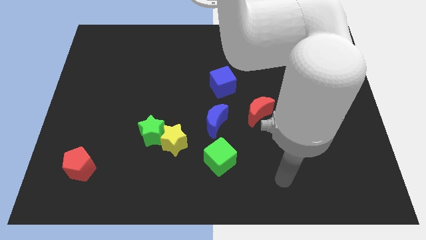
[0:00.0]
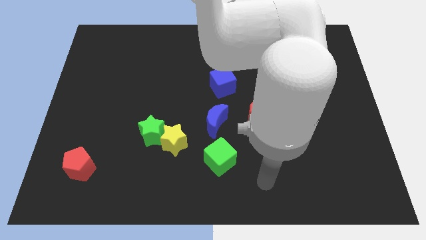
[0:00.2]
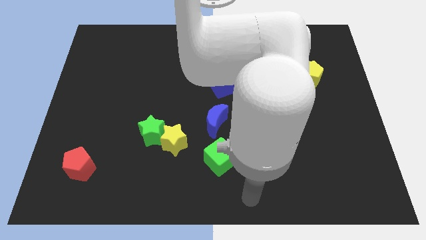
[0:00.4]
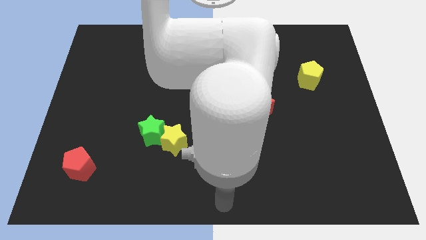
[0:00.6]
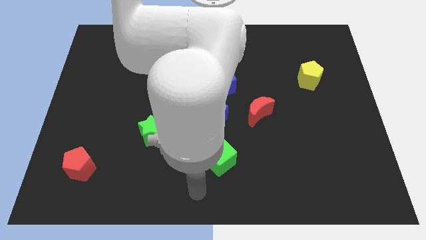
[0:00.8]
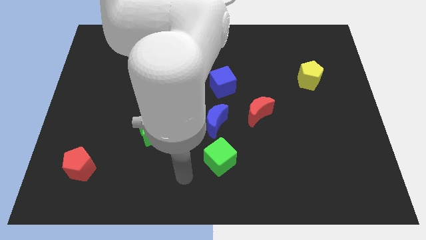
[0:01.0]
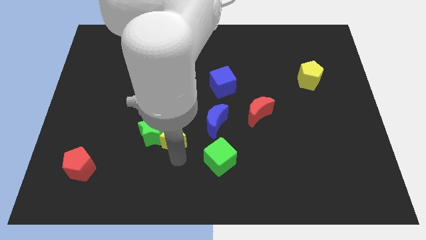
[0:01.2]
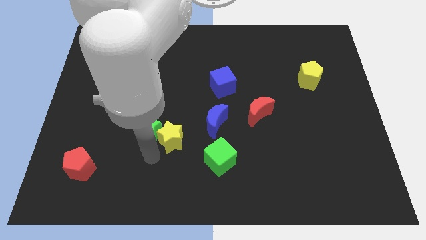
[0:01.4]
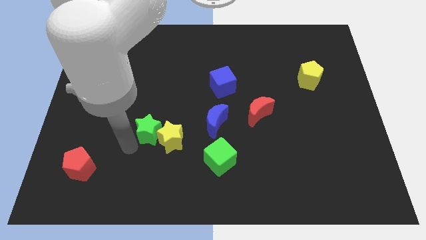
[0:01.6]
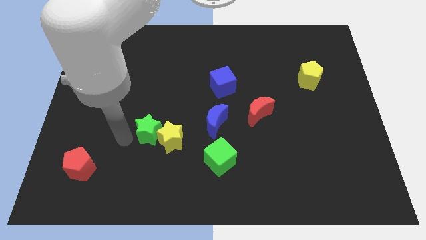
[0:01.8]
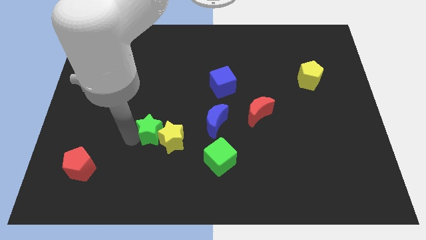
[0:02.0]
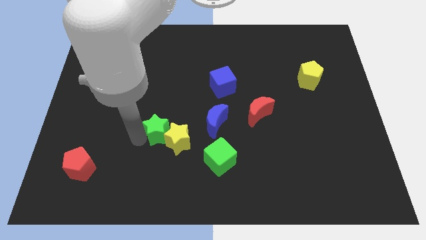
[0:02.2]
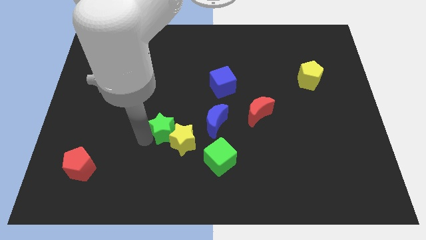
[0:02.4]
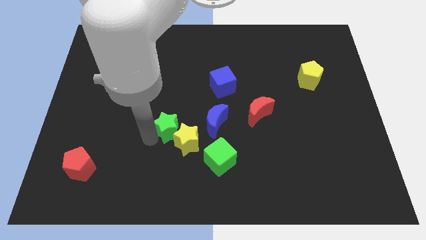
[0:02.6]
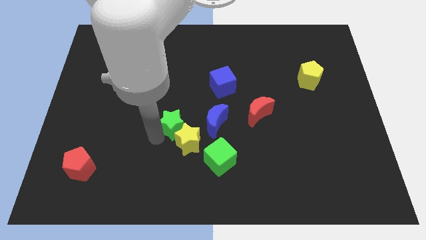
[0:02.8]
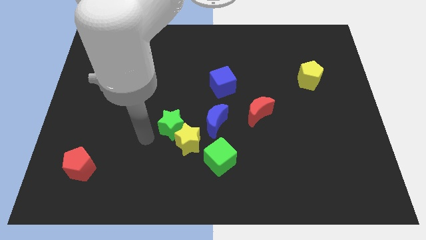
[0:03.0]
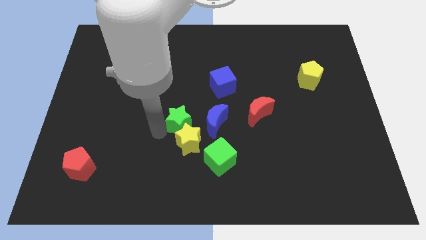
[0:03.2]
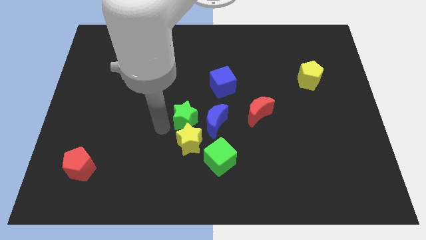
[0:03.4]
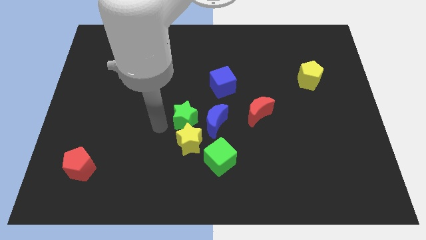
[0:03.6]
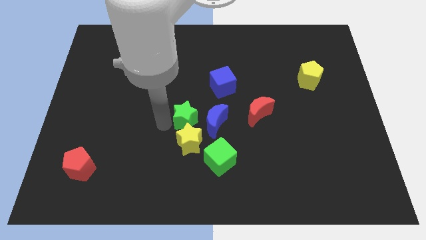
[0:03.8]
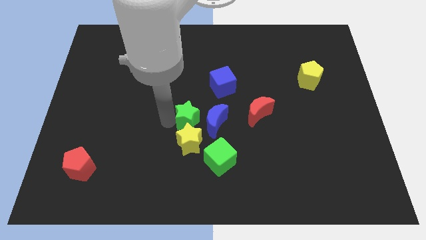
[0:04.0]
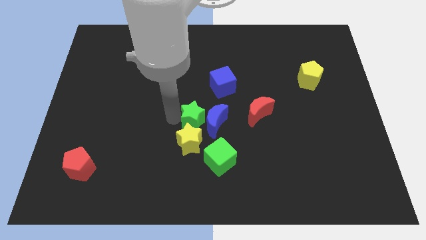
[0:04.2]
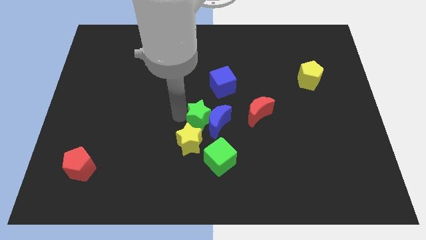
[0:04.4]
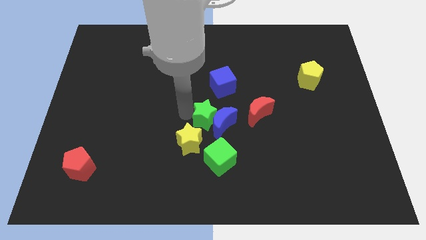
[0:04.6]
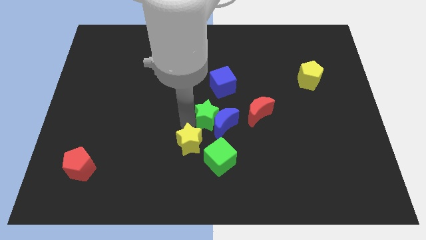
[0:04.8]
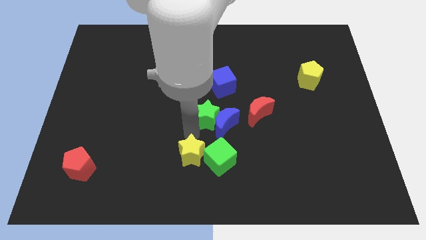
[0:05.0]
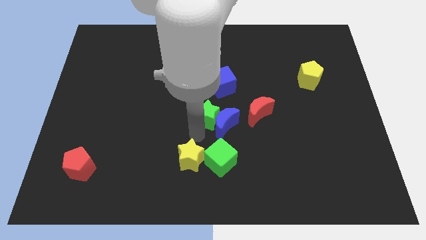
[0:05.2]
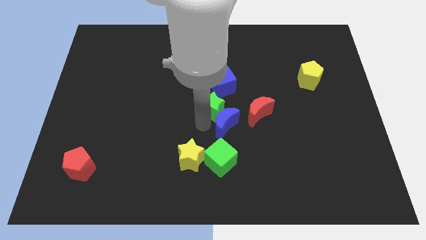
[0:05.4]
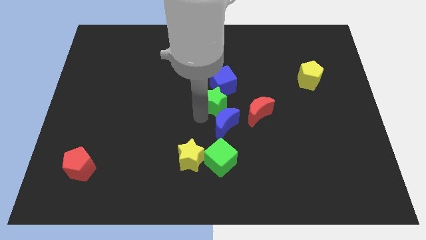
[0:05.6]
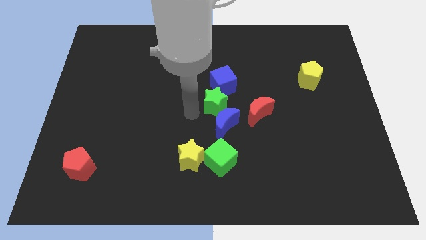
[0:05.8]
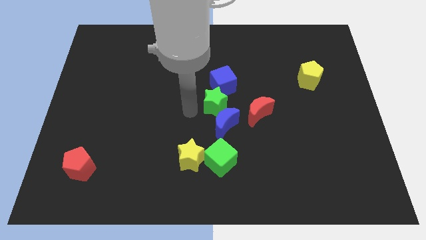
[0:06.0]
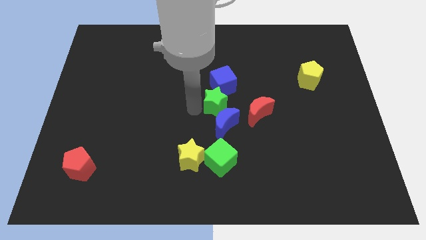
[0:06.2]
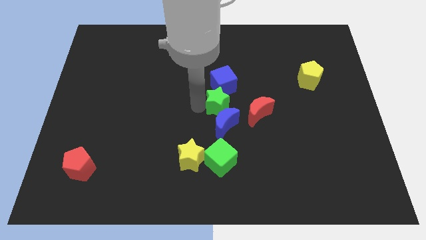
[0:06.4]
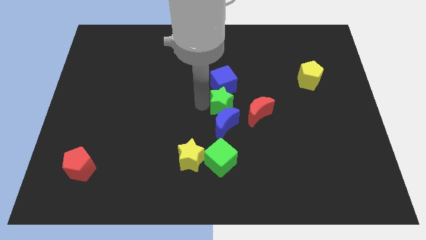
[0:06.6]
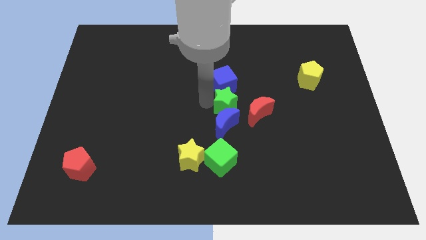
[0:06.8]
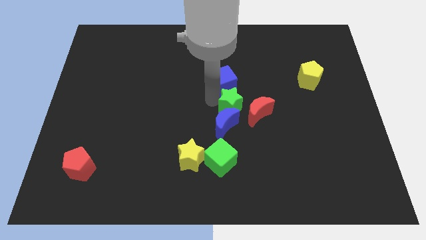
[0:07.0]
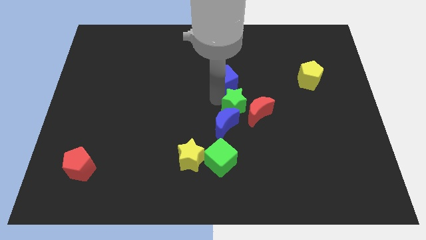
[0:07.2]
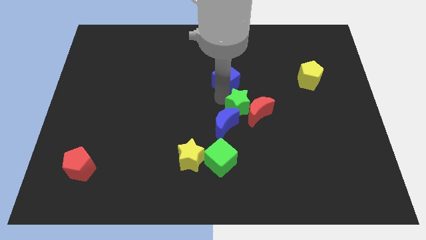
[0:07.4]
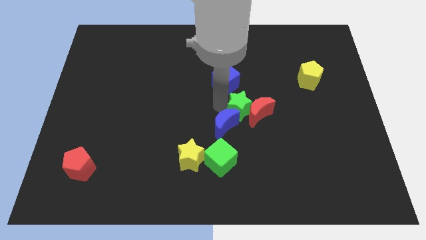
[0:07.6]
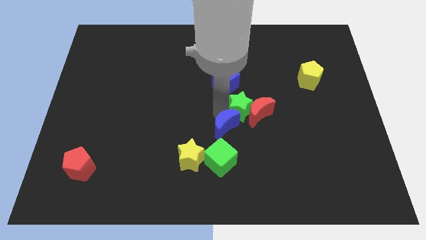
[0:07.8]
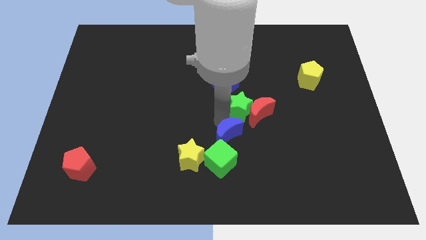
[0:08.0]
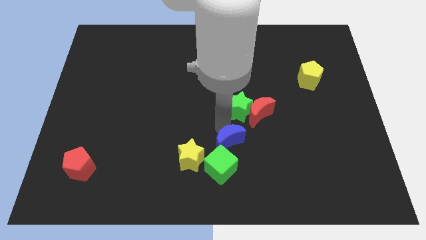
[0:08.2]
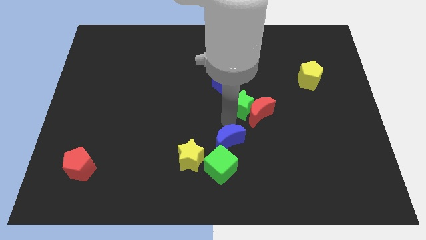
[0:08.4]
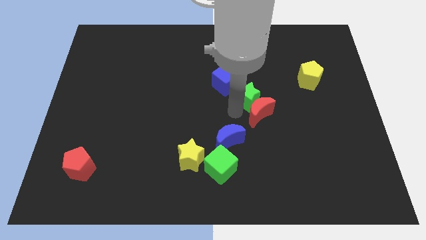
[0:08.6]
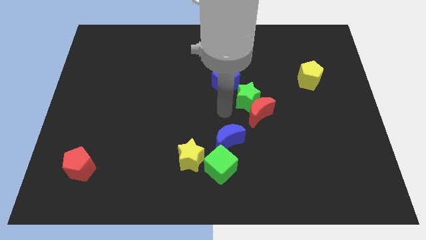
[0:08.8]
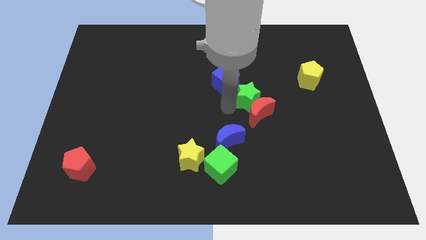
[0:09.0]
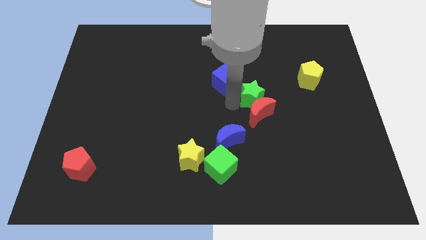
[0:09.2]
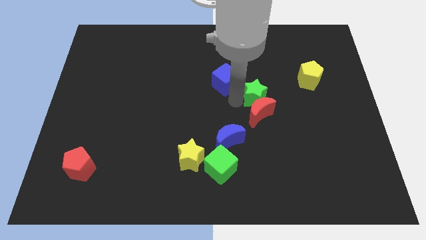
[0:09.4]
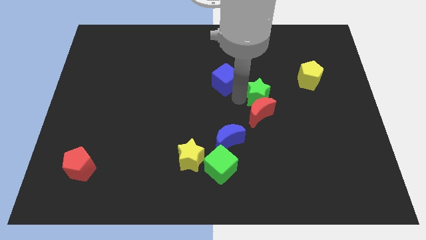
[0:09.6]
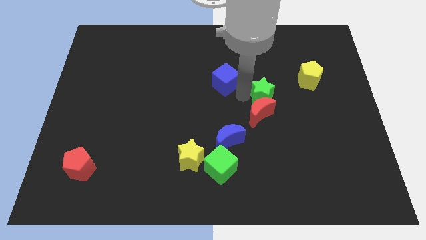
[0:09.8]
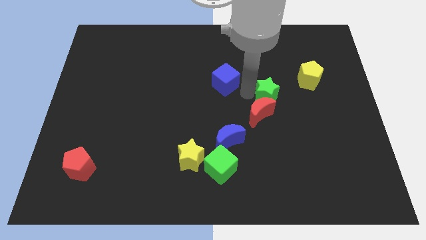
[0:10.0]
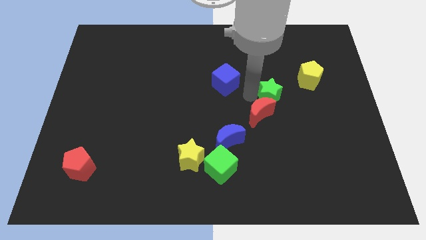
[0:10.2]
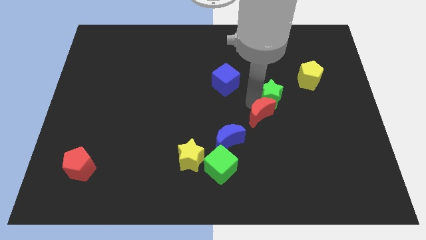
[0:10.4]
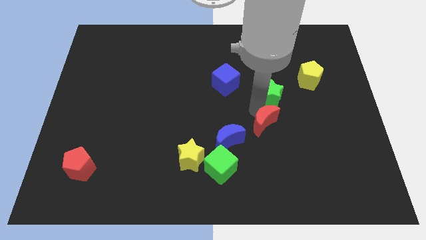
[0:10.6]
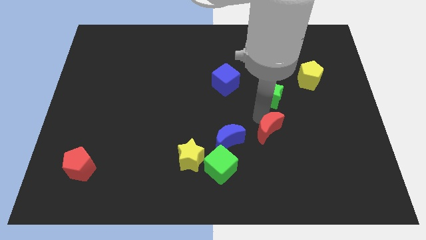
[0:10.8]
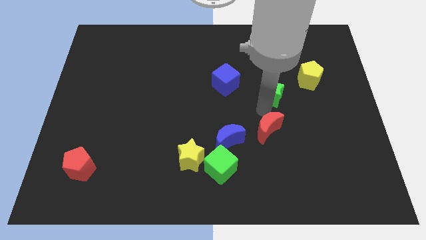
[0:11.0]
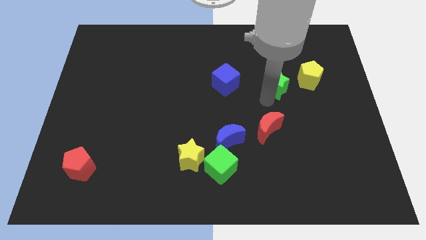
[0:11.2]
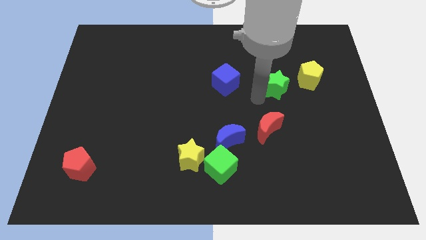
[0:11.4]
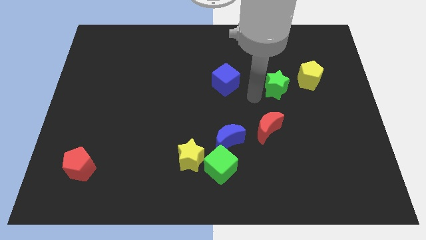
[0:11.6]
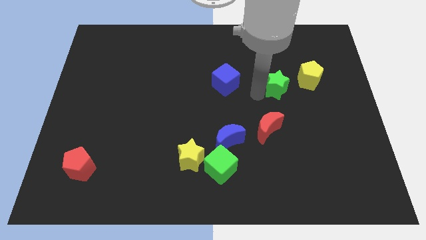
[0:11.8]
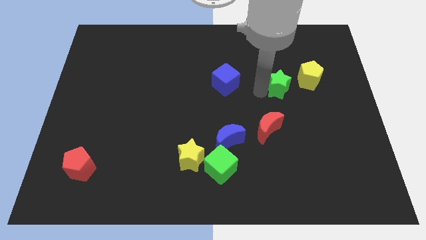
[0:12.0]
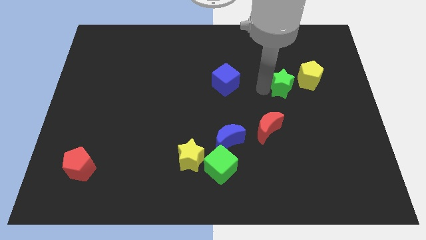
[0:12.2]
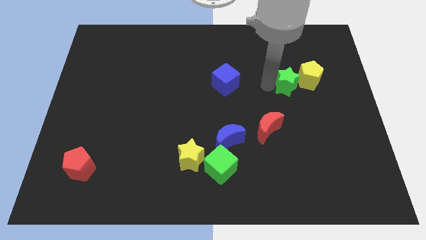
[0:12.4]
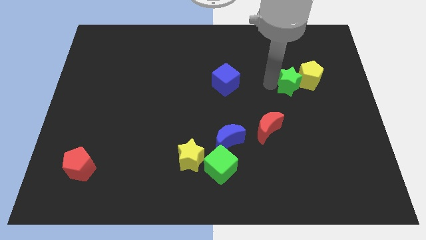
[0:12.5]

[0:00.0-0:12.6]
push the green star next to the yellow pentagon

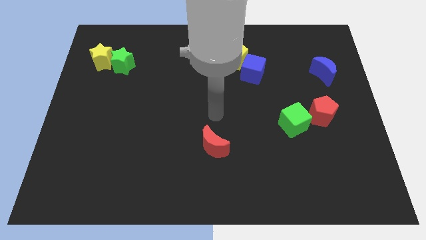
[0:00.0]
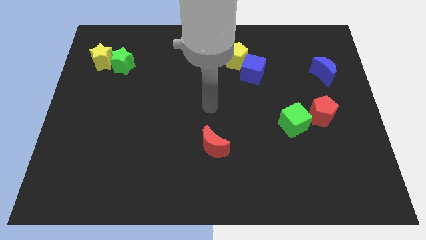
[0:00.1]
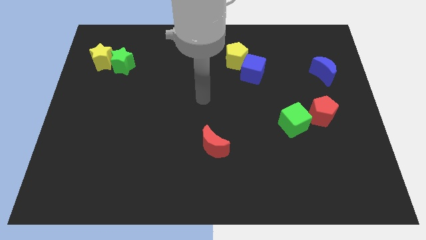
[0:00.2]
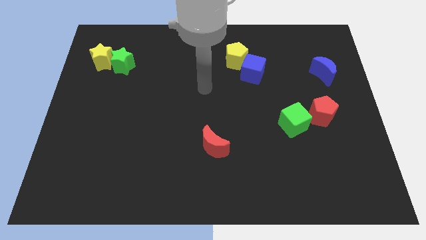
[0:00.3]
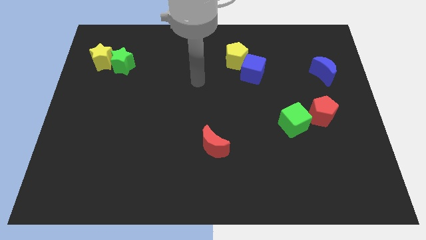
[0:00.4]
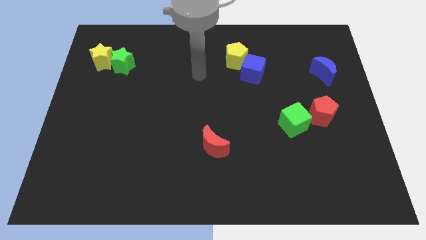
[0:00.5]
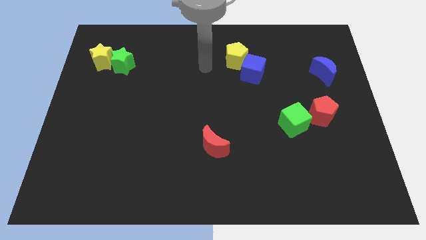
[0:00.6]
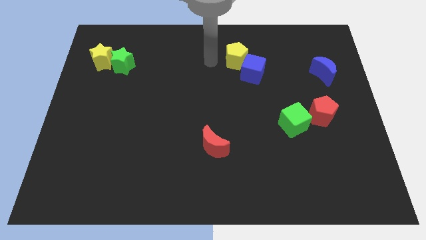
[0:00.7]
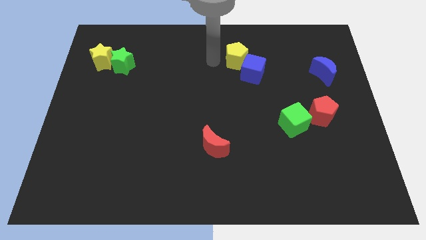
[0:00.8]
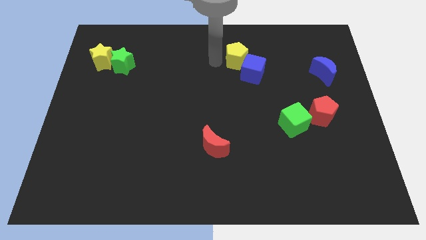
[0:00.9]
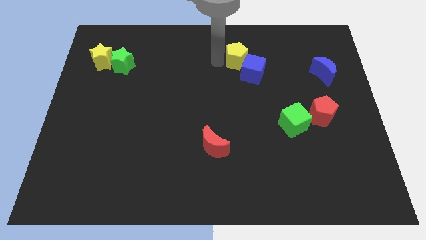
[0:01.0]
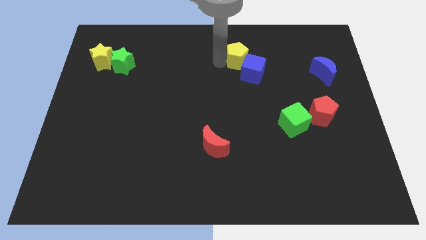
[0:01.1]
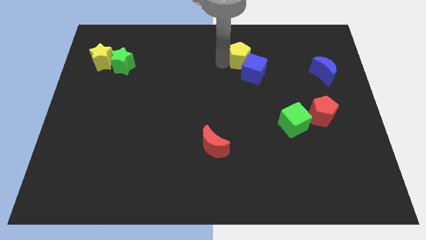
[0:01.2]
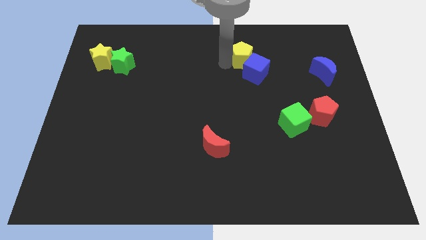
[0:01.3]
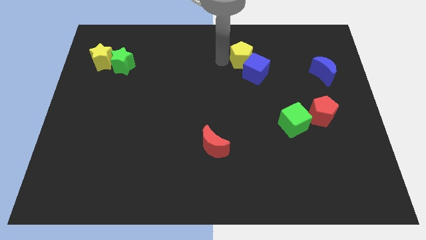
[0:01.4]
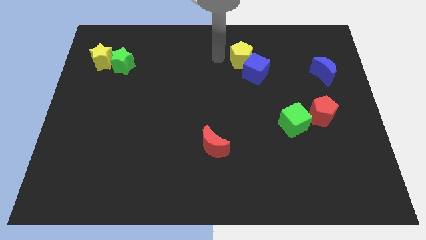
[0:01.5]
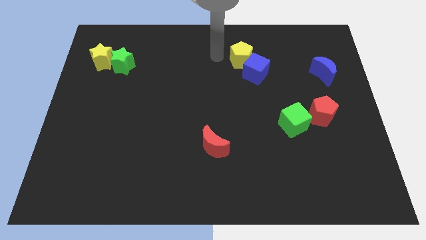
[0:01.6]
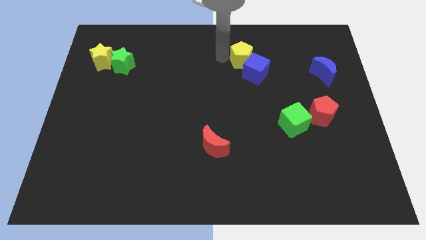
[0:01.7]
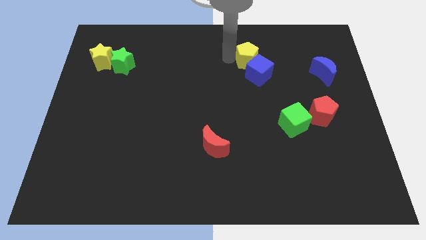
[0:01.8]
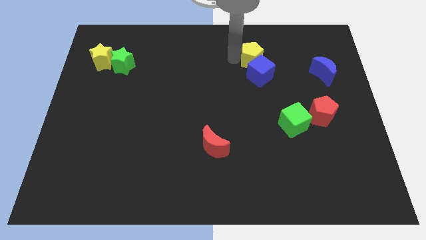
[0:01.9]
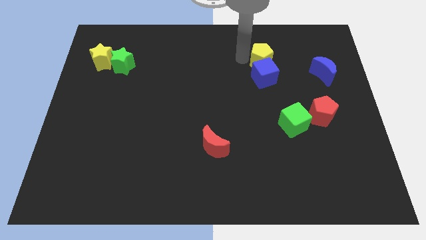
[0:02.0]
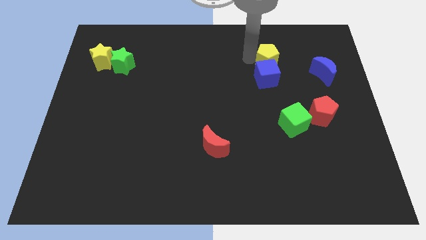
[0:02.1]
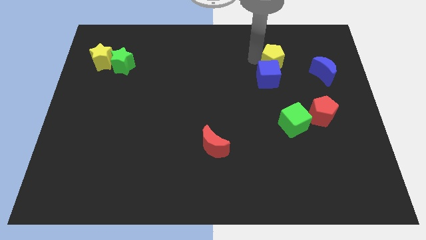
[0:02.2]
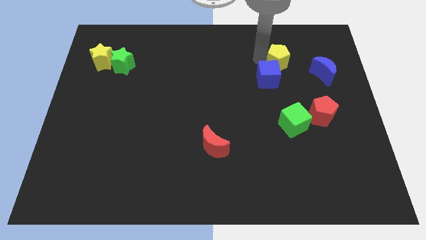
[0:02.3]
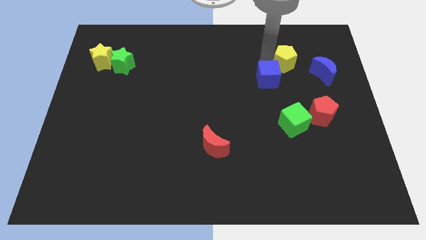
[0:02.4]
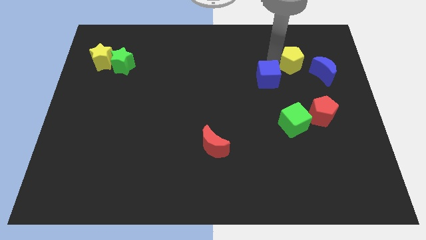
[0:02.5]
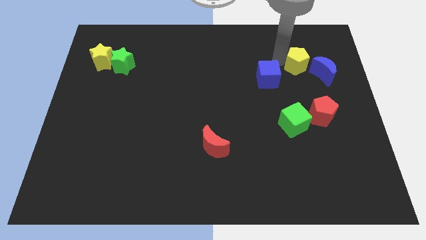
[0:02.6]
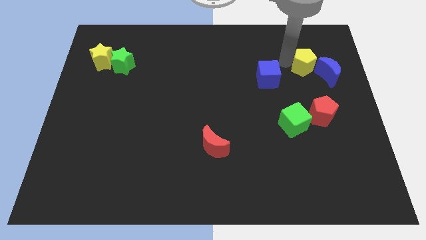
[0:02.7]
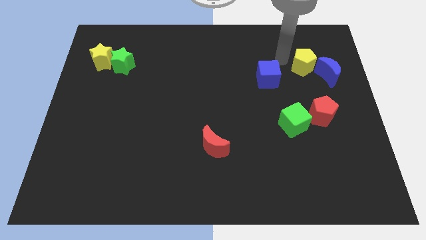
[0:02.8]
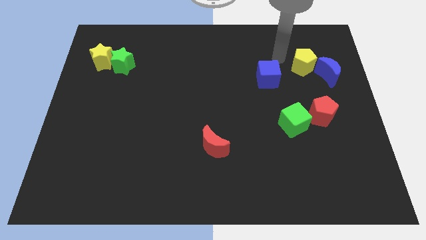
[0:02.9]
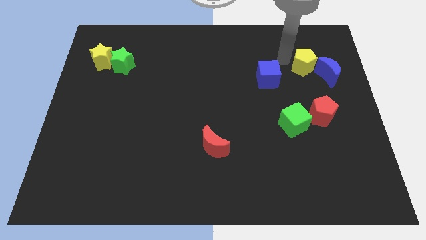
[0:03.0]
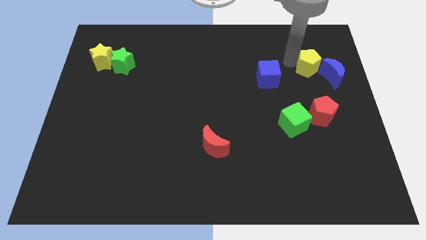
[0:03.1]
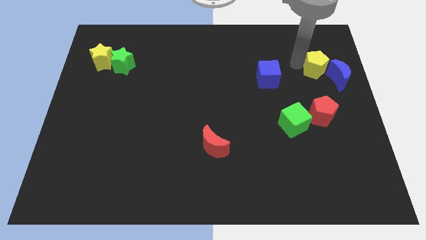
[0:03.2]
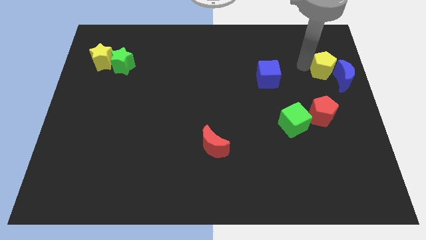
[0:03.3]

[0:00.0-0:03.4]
slide the yellow pentagon next to the blue moon
